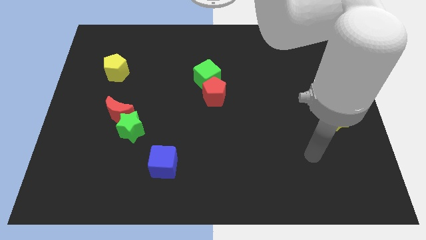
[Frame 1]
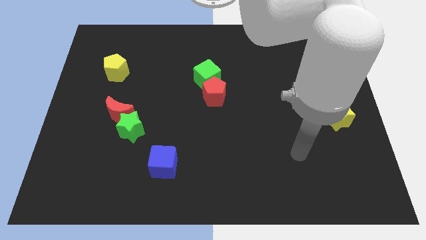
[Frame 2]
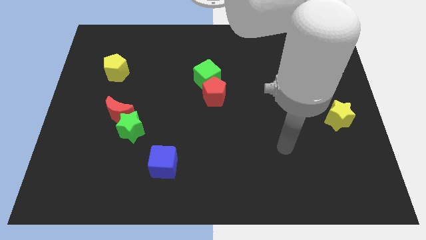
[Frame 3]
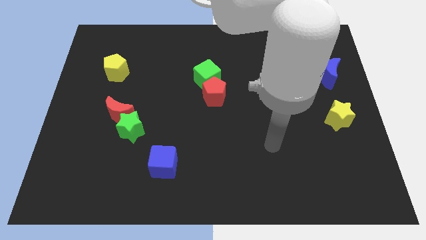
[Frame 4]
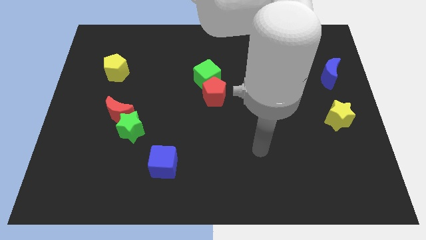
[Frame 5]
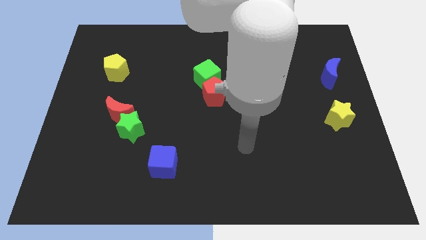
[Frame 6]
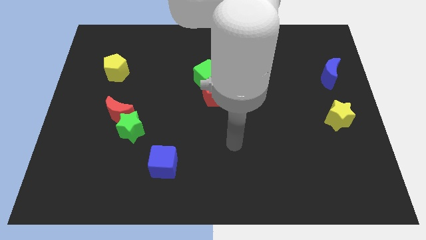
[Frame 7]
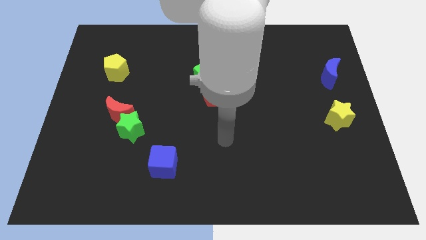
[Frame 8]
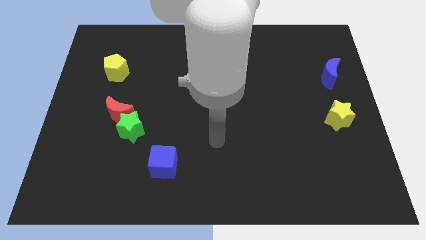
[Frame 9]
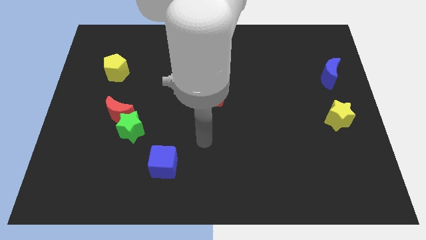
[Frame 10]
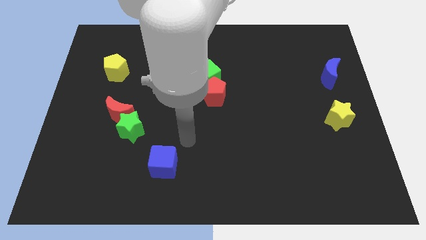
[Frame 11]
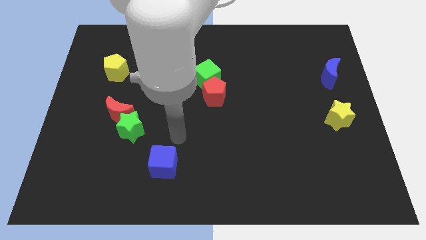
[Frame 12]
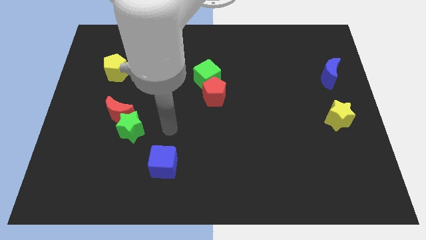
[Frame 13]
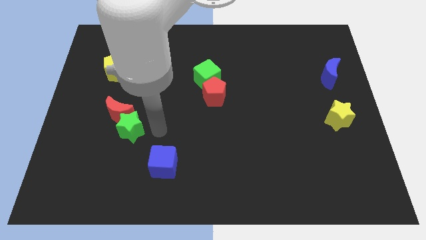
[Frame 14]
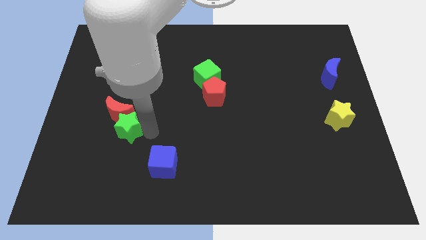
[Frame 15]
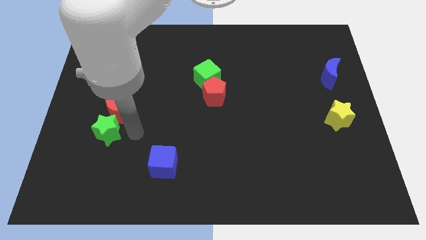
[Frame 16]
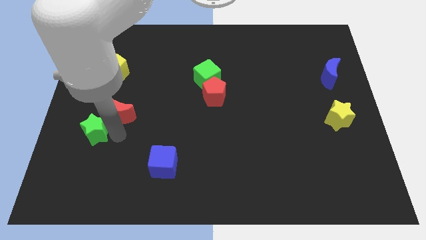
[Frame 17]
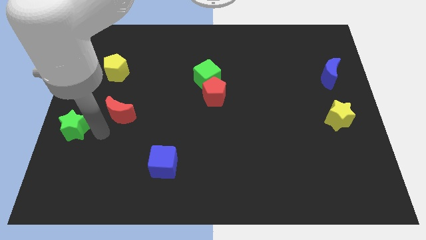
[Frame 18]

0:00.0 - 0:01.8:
separate the red moon from the green star

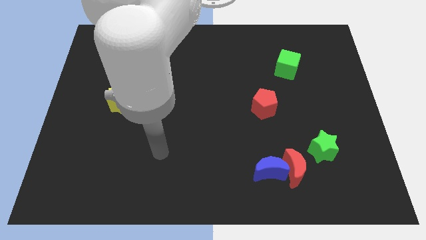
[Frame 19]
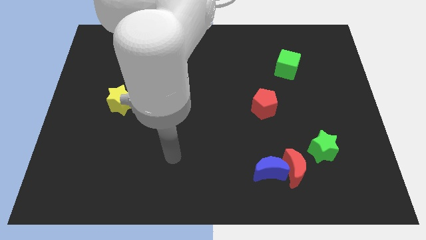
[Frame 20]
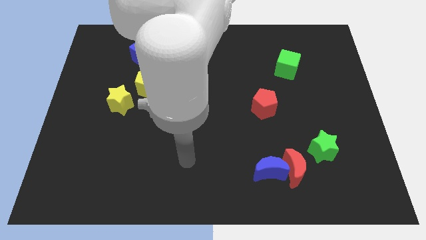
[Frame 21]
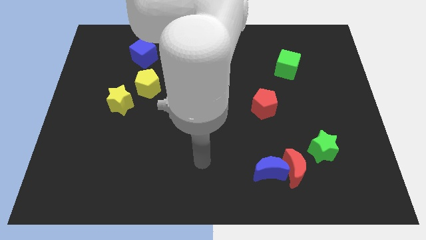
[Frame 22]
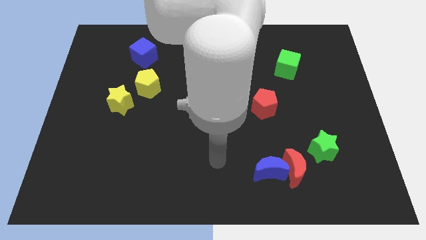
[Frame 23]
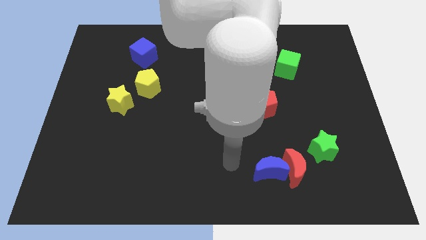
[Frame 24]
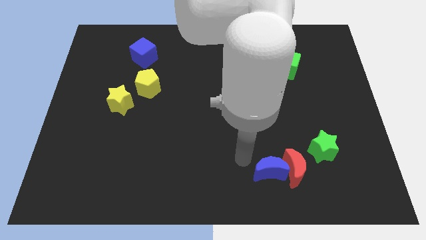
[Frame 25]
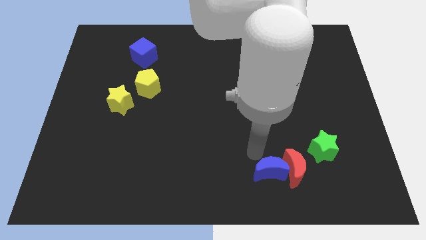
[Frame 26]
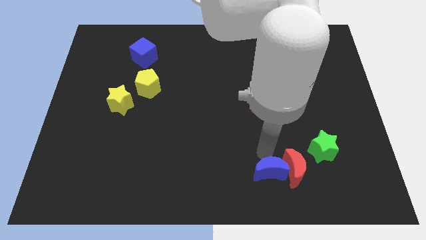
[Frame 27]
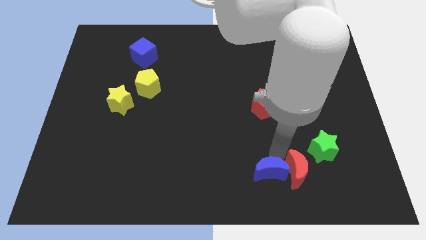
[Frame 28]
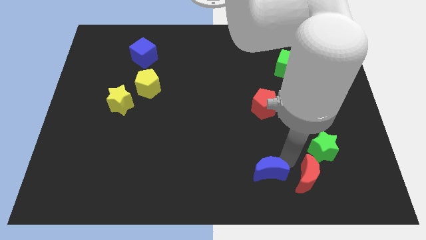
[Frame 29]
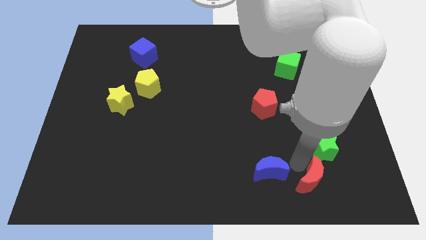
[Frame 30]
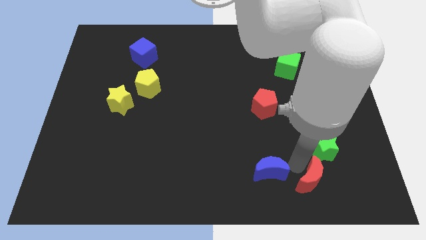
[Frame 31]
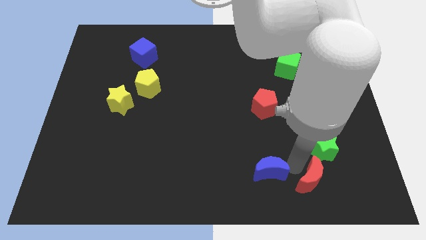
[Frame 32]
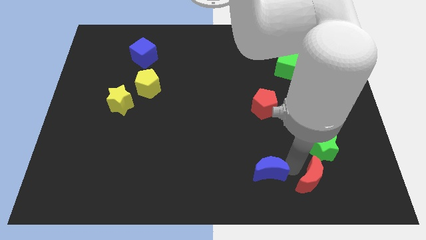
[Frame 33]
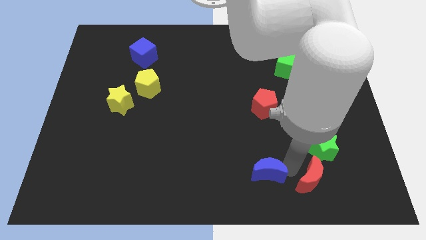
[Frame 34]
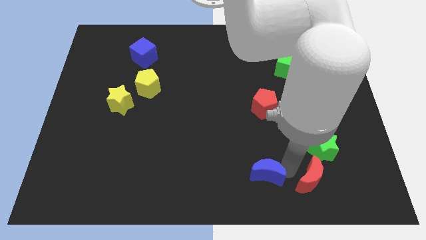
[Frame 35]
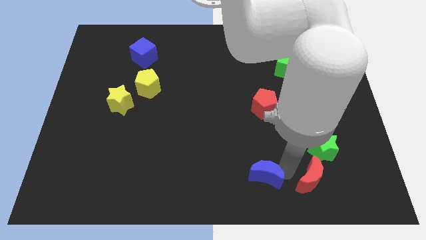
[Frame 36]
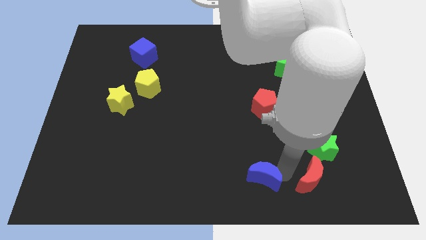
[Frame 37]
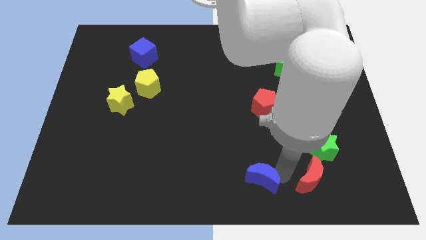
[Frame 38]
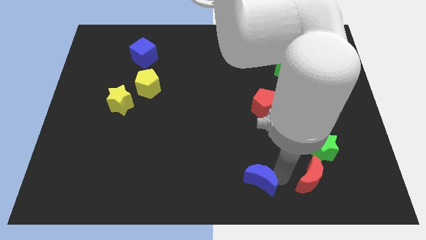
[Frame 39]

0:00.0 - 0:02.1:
separate the blue moon from the red moon

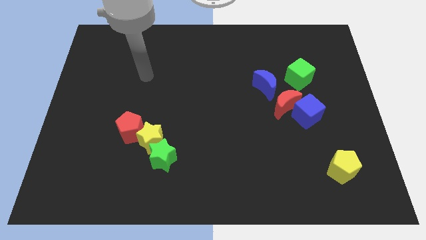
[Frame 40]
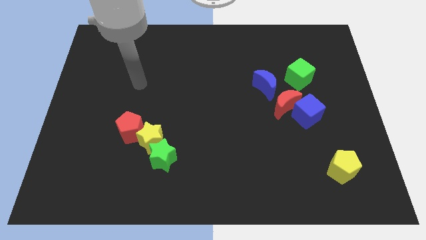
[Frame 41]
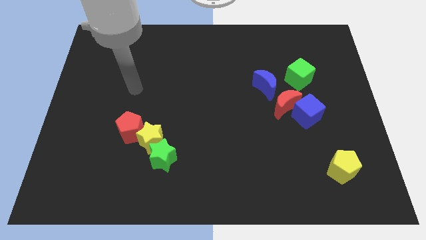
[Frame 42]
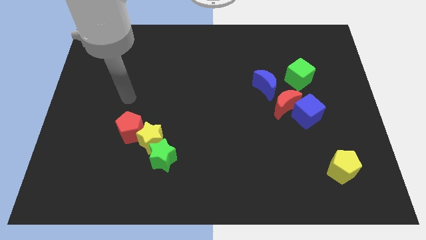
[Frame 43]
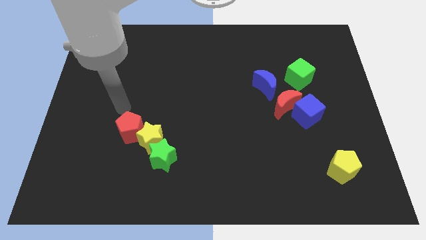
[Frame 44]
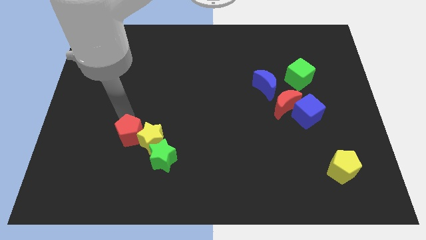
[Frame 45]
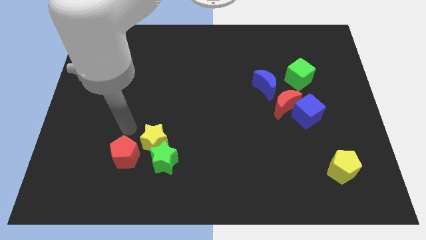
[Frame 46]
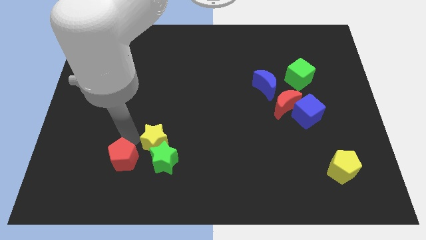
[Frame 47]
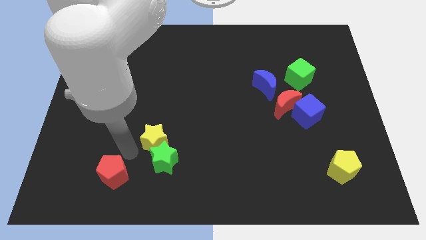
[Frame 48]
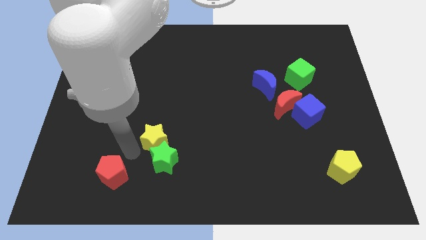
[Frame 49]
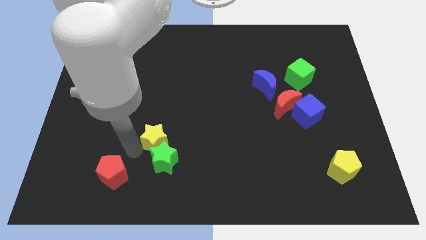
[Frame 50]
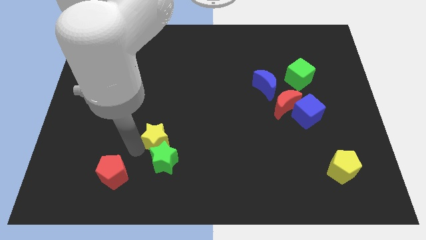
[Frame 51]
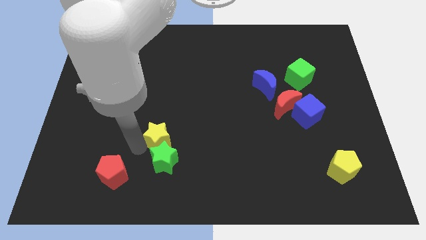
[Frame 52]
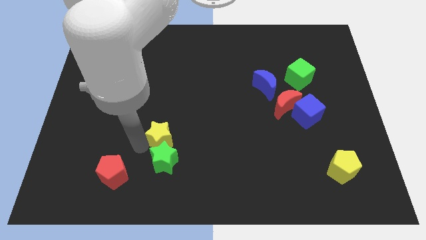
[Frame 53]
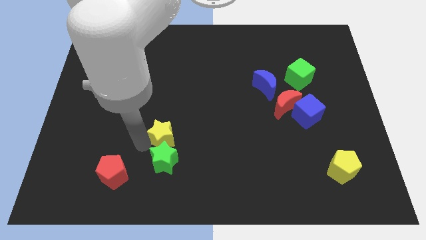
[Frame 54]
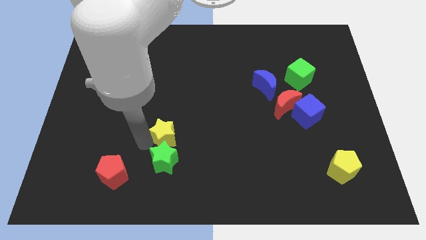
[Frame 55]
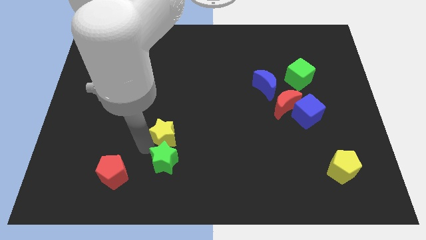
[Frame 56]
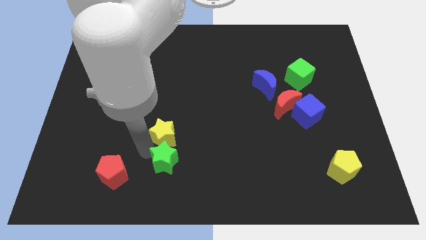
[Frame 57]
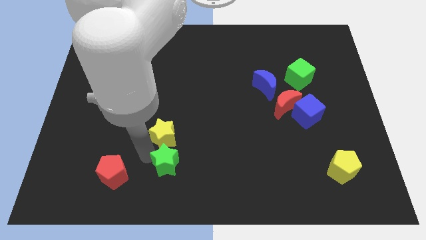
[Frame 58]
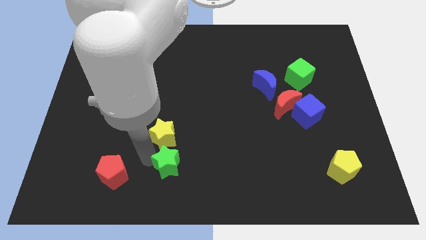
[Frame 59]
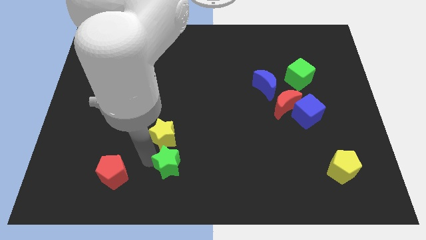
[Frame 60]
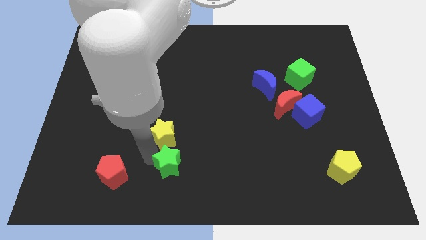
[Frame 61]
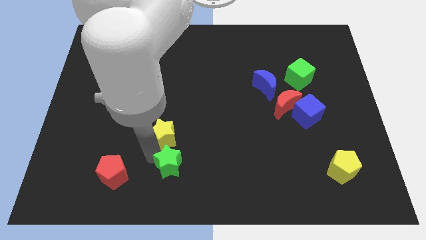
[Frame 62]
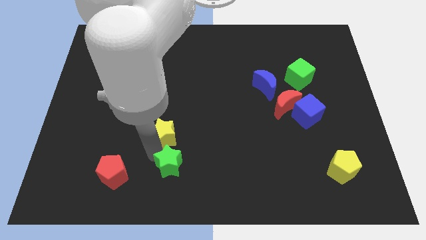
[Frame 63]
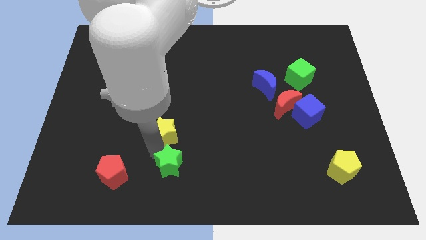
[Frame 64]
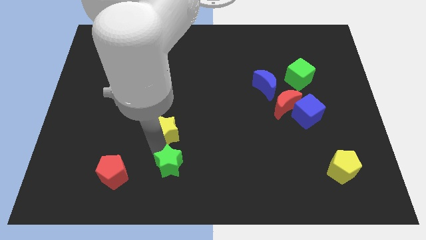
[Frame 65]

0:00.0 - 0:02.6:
separate the yellow star from the green star and red pentagon

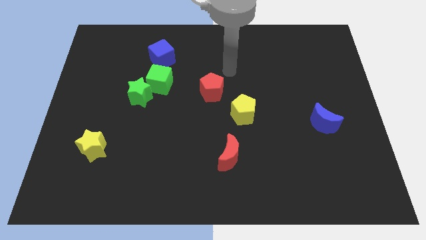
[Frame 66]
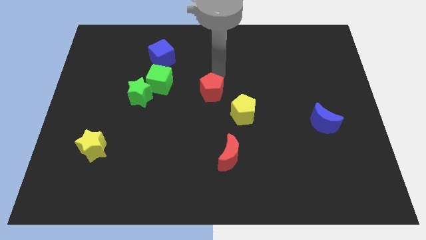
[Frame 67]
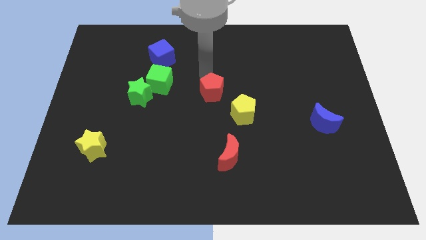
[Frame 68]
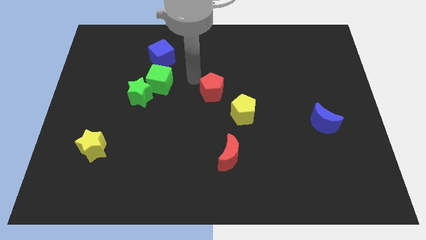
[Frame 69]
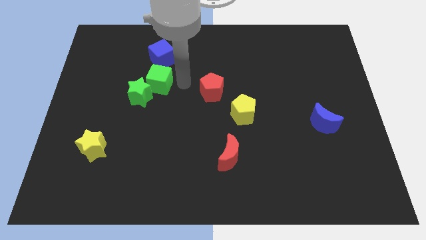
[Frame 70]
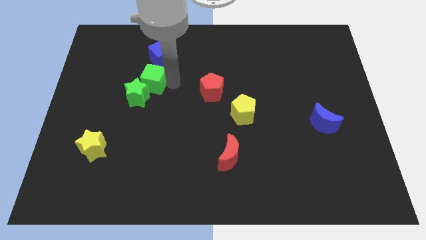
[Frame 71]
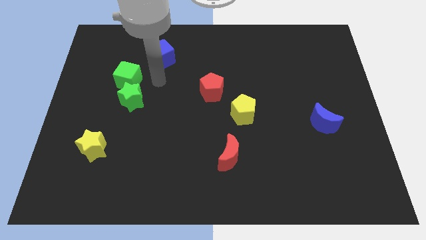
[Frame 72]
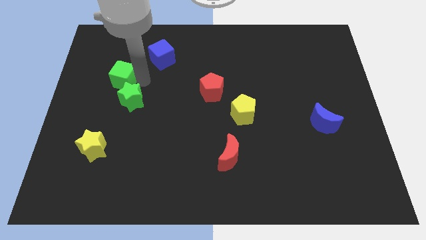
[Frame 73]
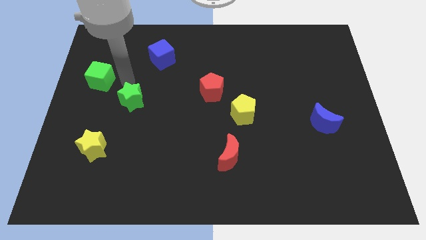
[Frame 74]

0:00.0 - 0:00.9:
move the green star away from the green cube

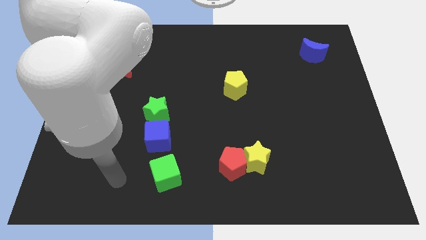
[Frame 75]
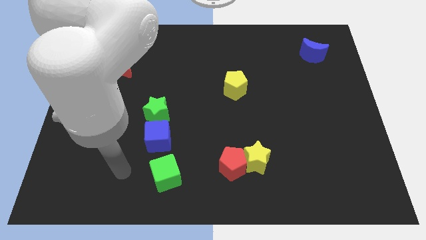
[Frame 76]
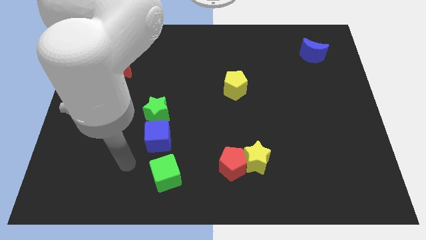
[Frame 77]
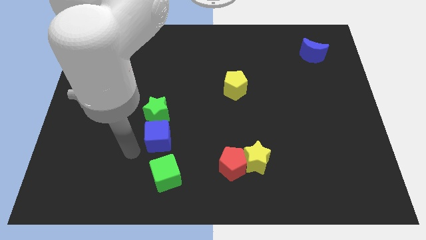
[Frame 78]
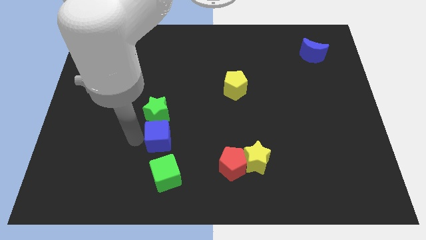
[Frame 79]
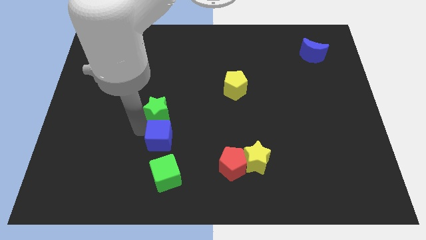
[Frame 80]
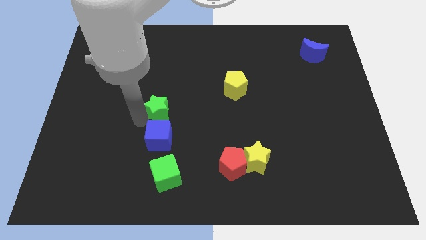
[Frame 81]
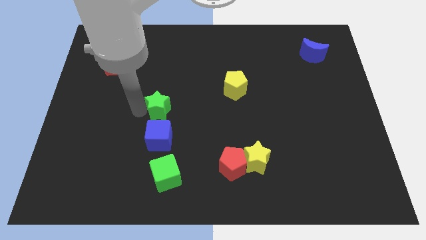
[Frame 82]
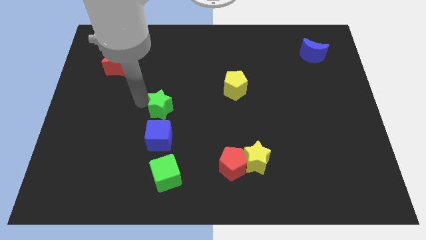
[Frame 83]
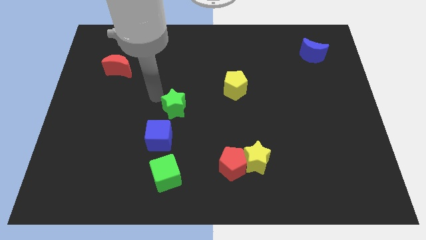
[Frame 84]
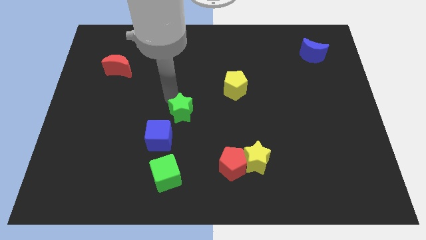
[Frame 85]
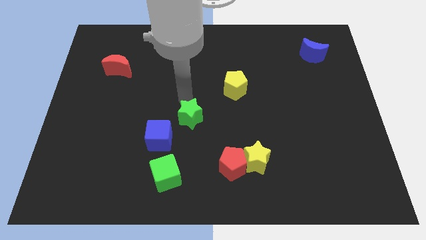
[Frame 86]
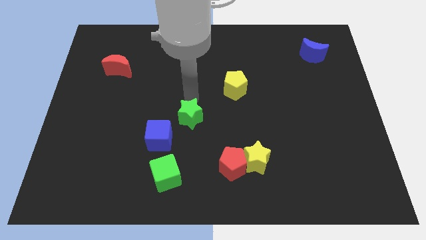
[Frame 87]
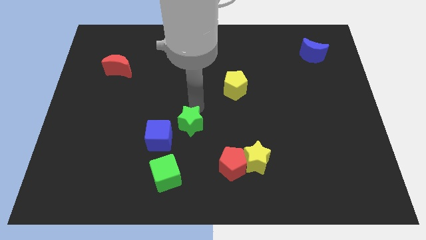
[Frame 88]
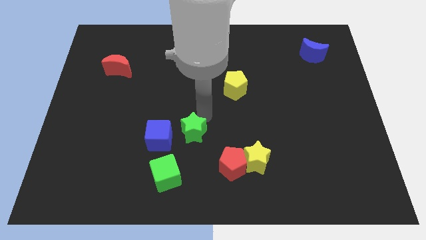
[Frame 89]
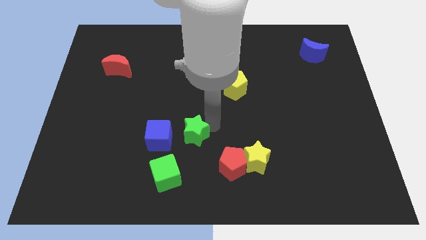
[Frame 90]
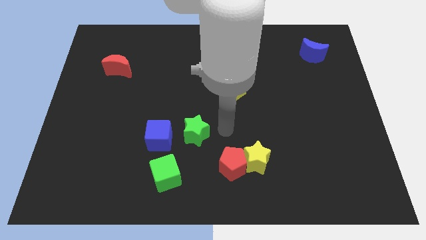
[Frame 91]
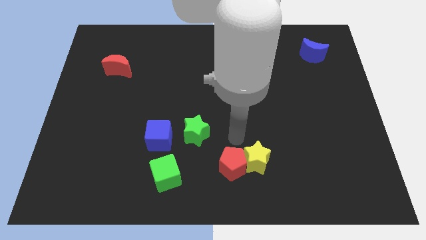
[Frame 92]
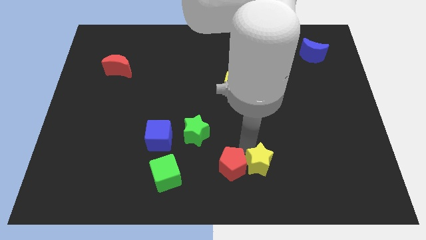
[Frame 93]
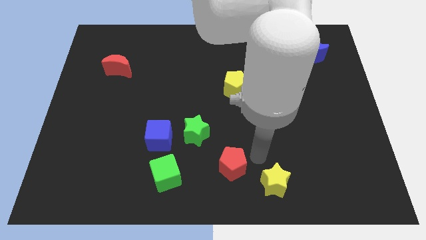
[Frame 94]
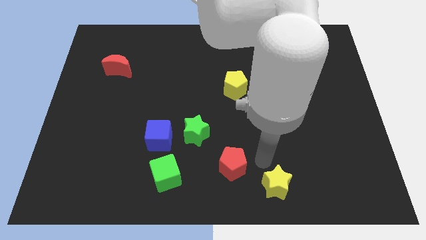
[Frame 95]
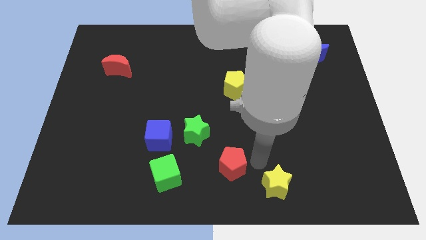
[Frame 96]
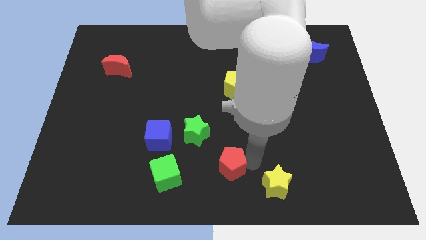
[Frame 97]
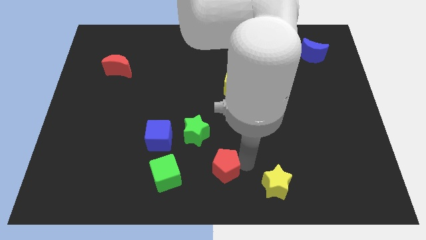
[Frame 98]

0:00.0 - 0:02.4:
pull the red pentagon apart from the yellow star
